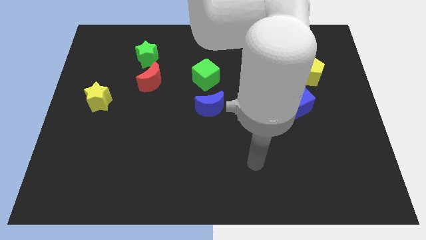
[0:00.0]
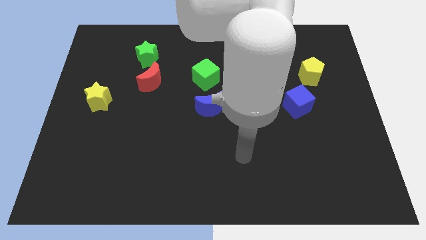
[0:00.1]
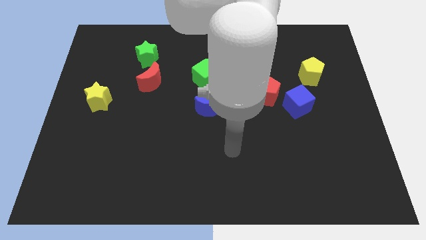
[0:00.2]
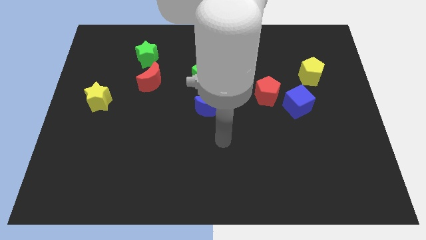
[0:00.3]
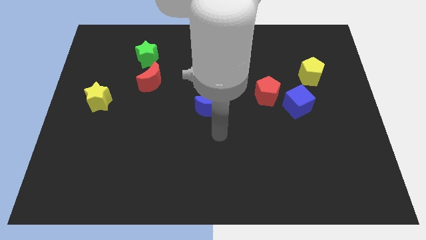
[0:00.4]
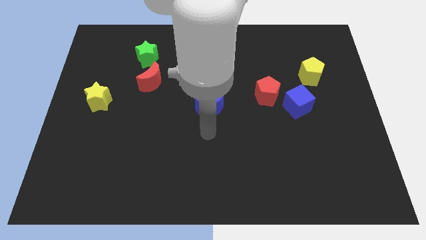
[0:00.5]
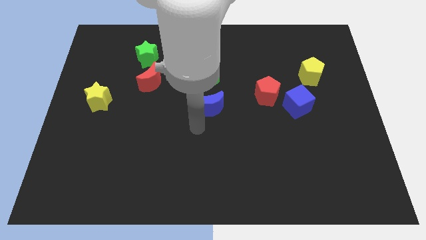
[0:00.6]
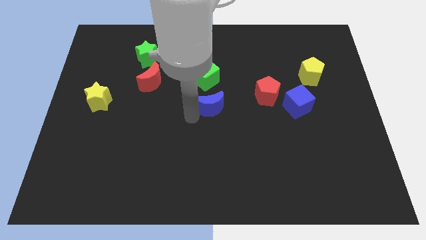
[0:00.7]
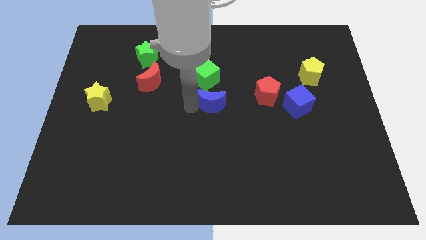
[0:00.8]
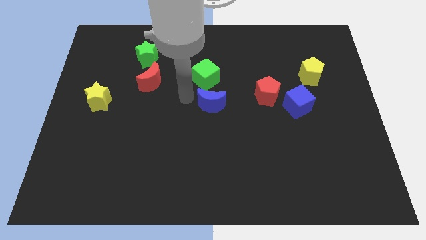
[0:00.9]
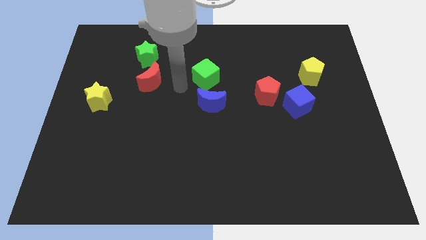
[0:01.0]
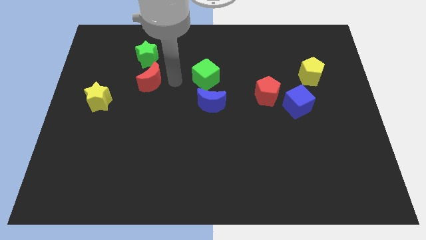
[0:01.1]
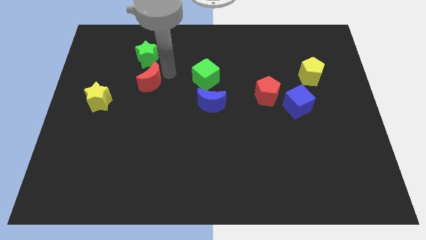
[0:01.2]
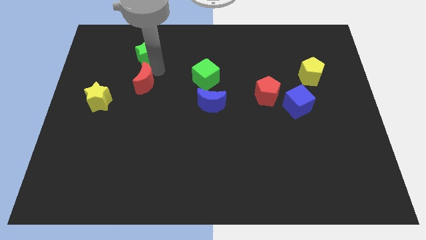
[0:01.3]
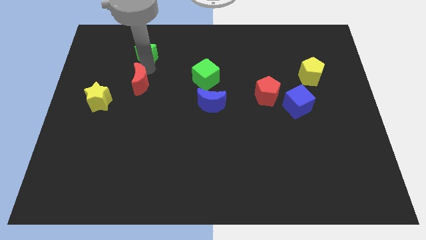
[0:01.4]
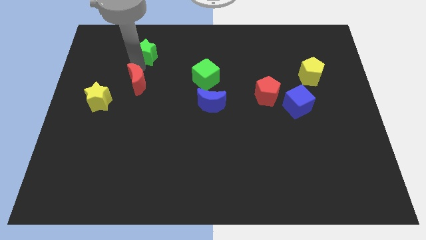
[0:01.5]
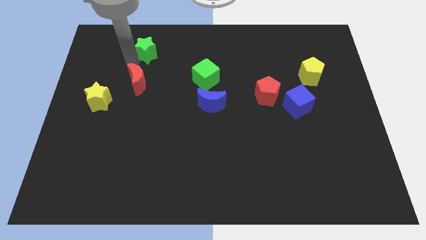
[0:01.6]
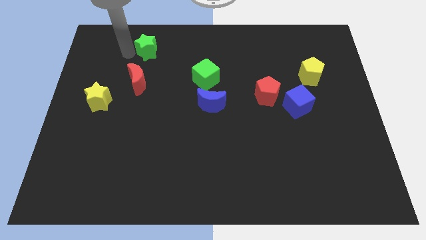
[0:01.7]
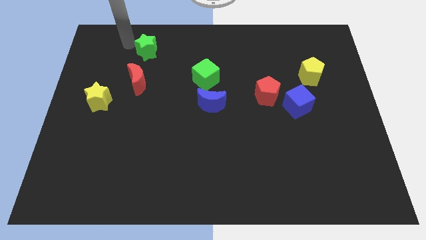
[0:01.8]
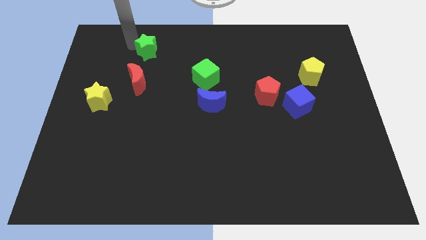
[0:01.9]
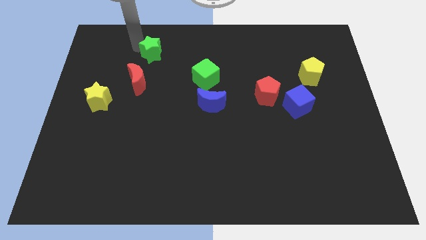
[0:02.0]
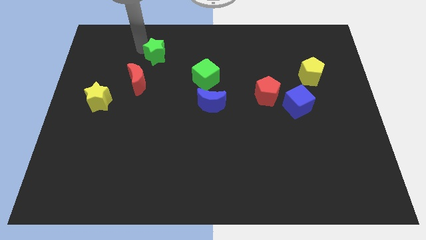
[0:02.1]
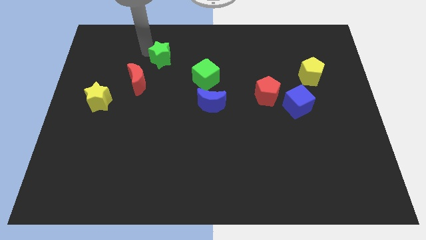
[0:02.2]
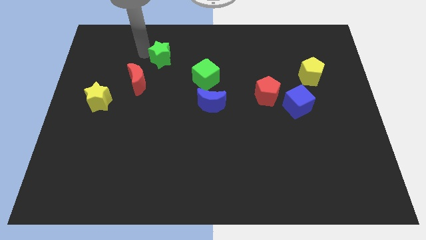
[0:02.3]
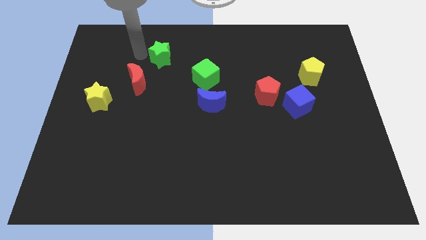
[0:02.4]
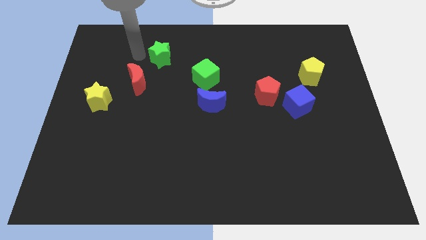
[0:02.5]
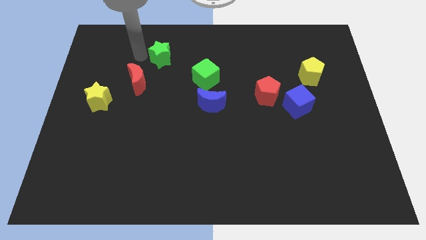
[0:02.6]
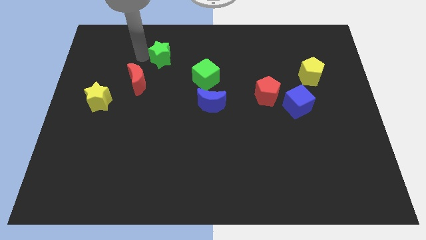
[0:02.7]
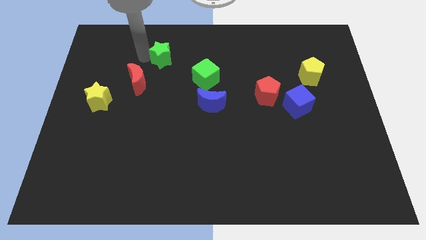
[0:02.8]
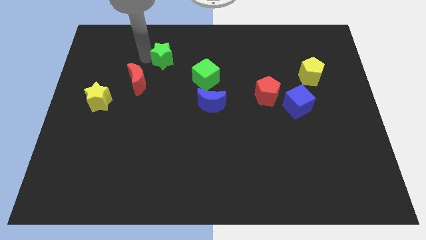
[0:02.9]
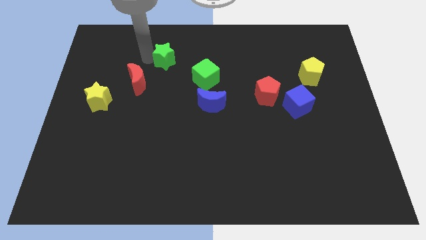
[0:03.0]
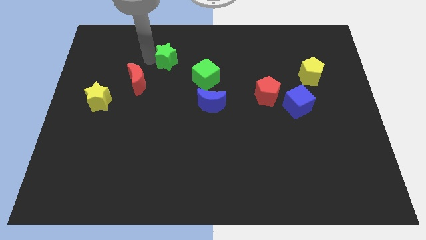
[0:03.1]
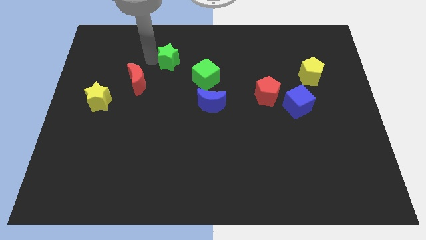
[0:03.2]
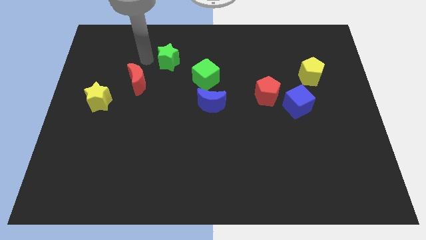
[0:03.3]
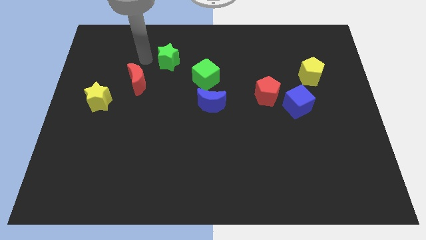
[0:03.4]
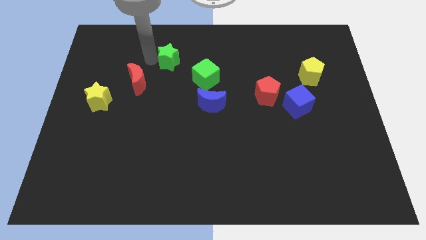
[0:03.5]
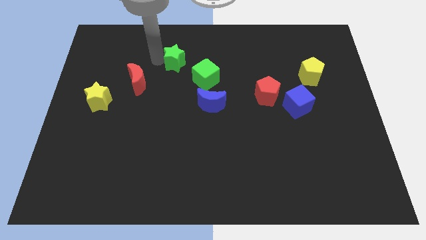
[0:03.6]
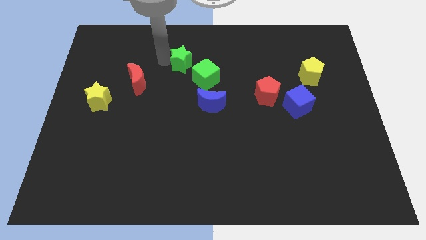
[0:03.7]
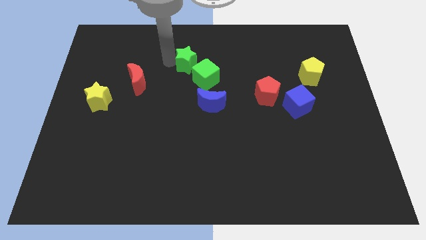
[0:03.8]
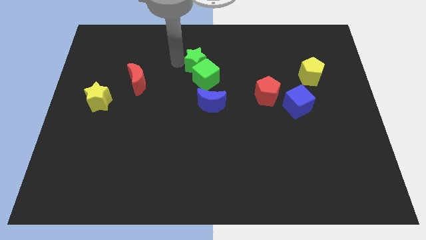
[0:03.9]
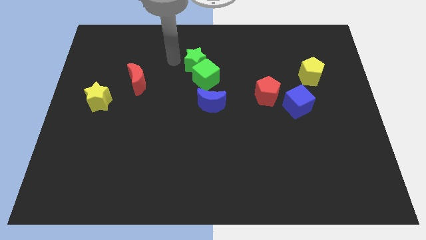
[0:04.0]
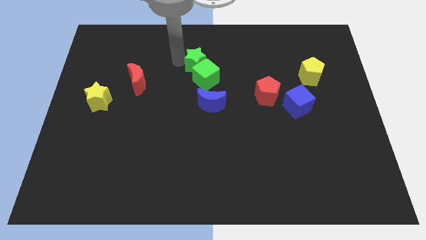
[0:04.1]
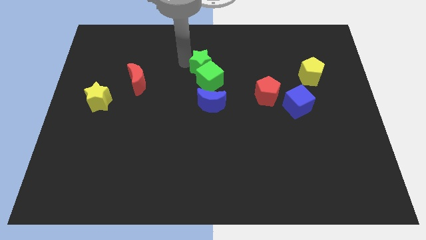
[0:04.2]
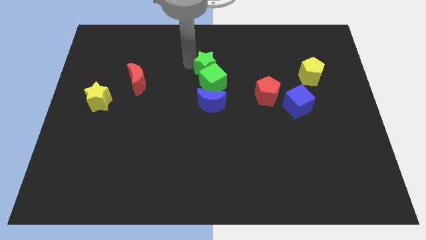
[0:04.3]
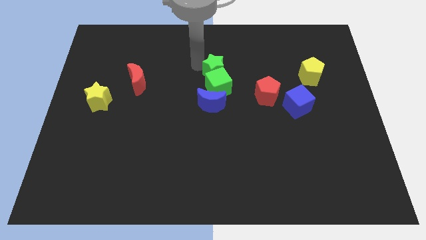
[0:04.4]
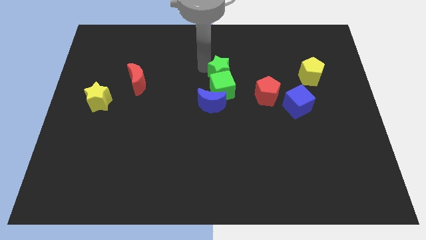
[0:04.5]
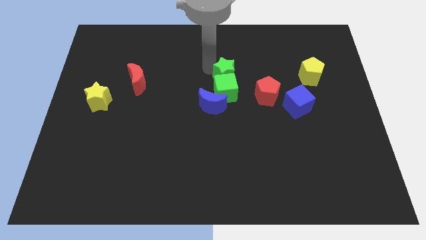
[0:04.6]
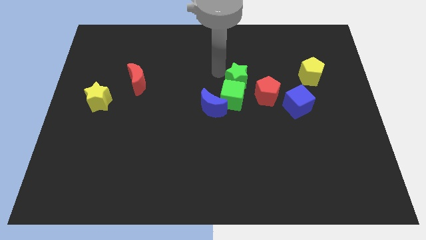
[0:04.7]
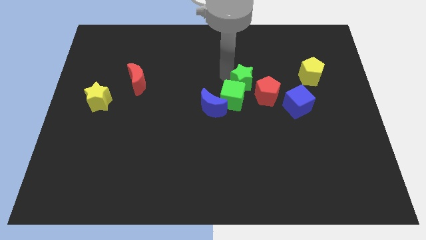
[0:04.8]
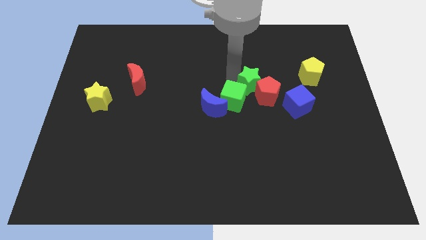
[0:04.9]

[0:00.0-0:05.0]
move the green star to the red pentagon

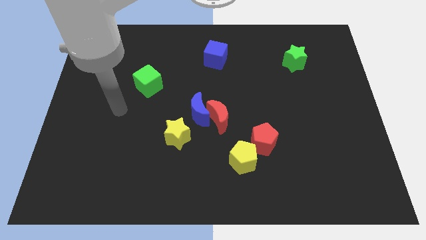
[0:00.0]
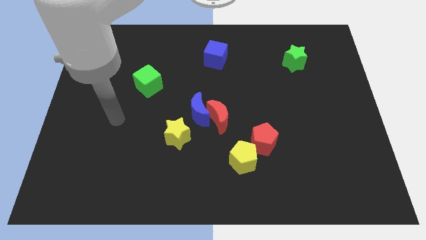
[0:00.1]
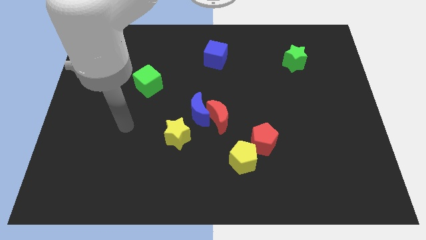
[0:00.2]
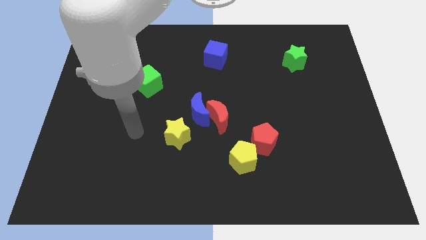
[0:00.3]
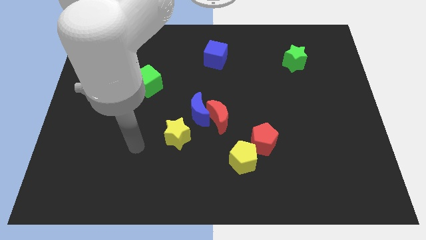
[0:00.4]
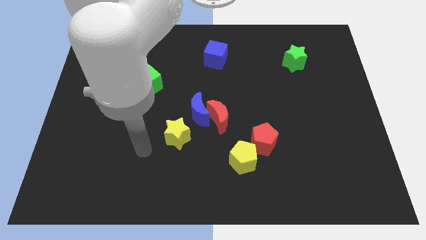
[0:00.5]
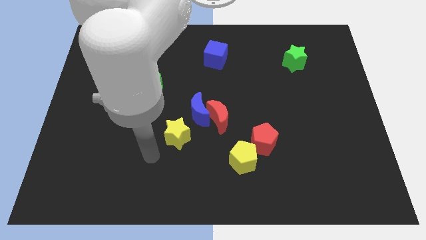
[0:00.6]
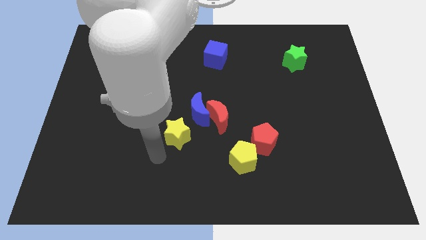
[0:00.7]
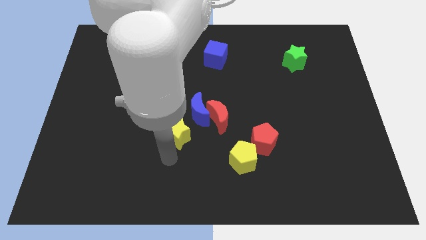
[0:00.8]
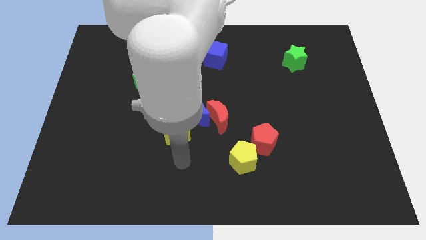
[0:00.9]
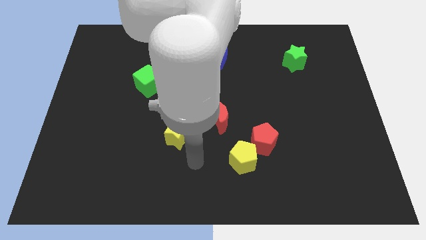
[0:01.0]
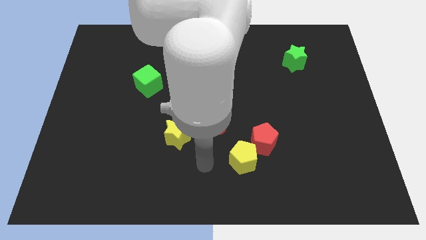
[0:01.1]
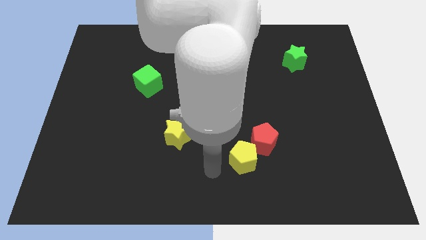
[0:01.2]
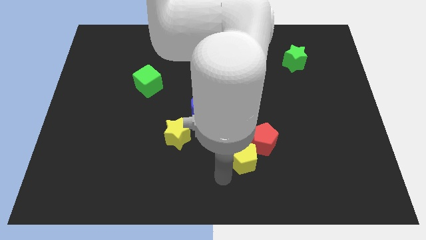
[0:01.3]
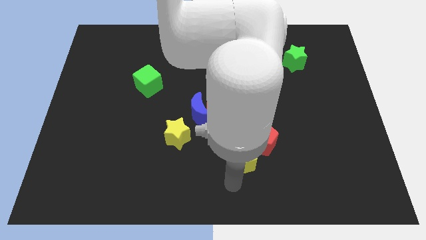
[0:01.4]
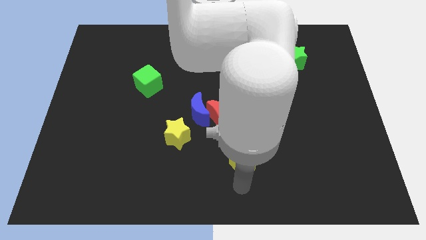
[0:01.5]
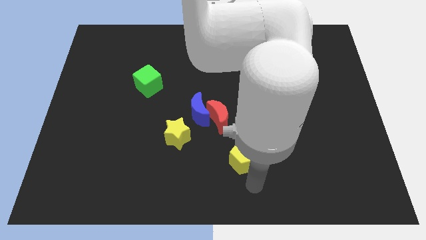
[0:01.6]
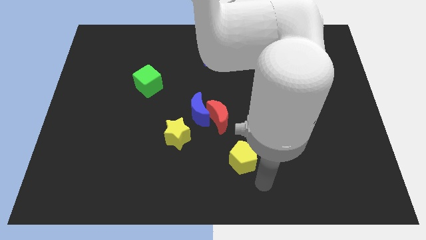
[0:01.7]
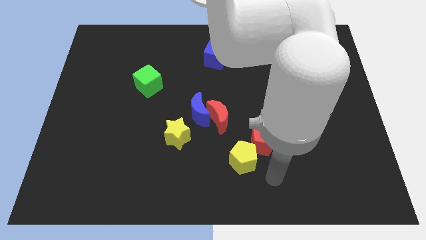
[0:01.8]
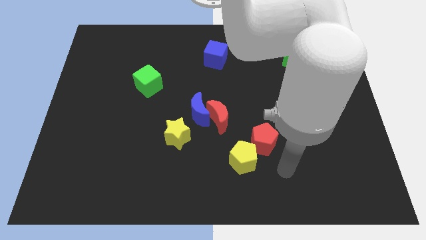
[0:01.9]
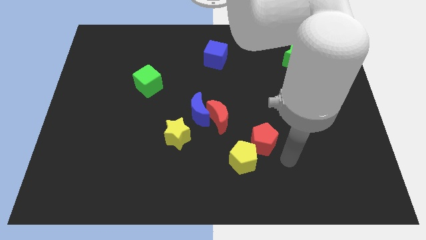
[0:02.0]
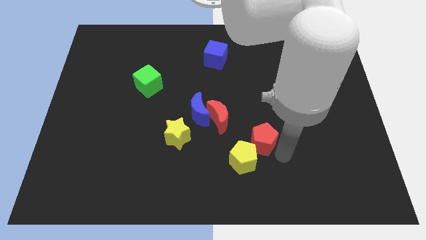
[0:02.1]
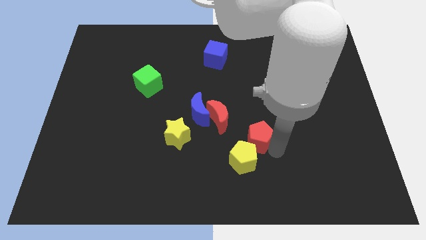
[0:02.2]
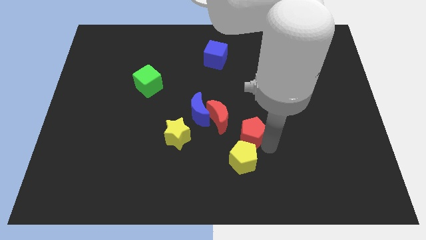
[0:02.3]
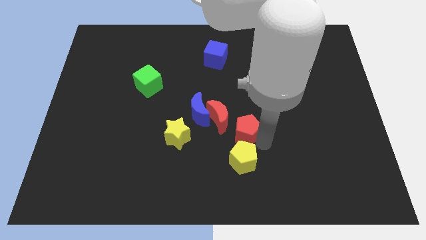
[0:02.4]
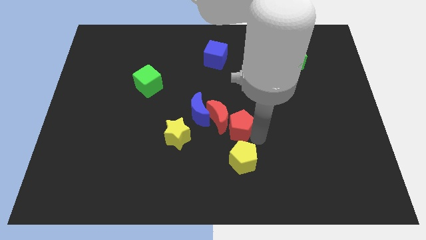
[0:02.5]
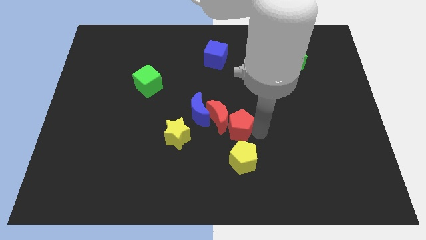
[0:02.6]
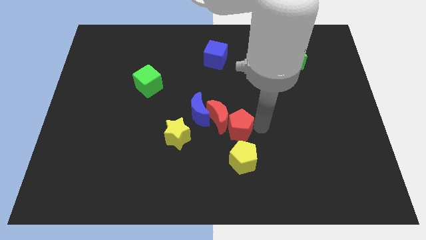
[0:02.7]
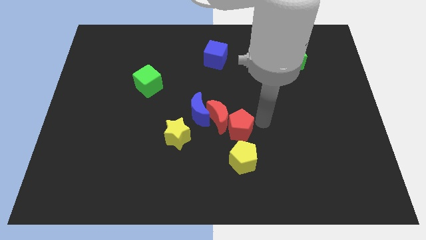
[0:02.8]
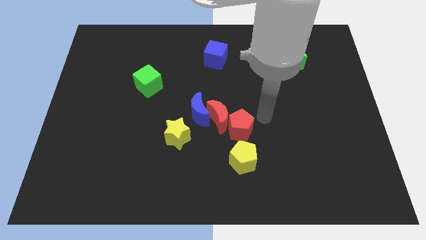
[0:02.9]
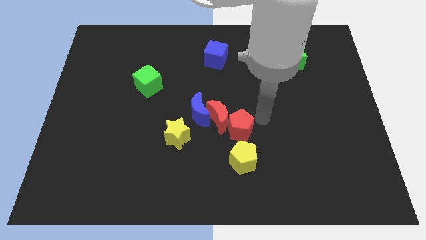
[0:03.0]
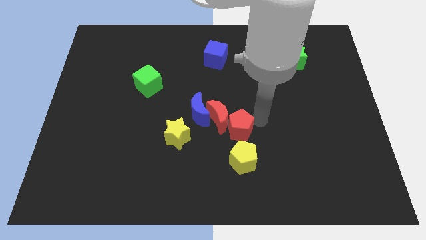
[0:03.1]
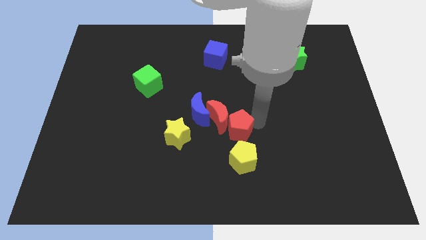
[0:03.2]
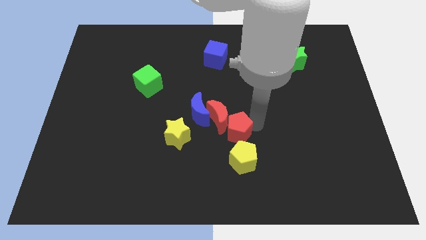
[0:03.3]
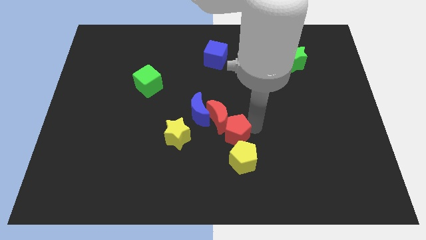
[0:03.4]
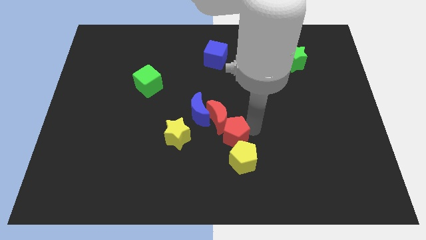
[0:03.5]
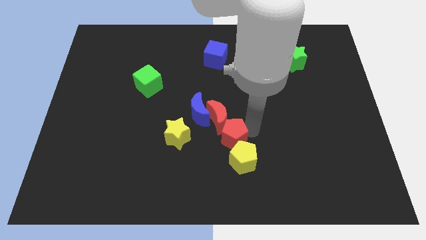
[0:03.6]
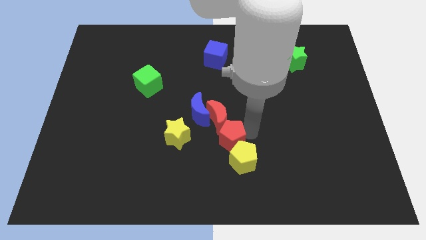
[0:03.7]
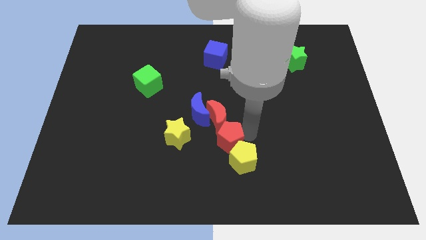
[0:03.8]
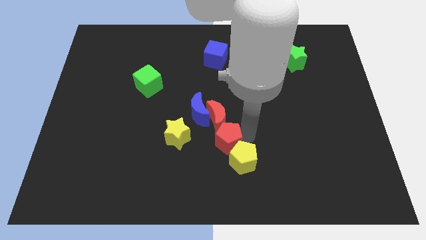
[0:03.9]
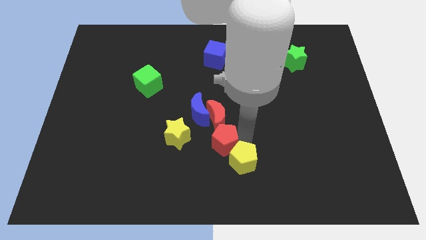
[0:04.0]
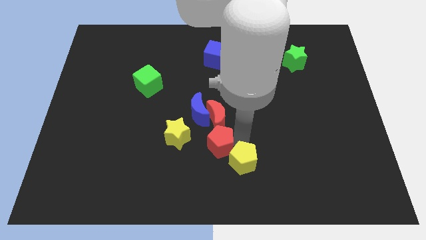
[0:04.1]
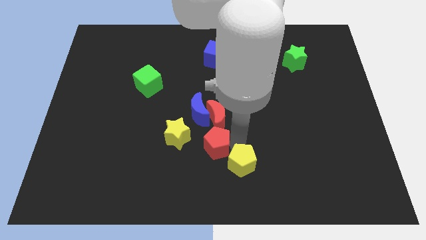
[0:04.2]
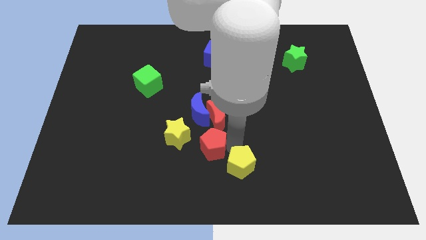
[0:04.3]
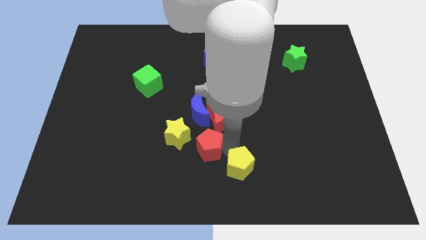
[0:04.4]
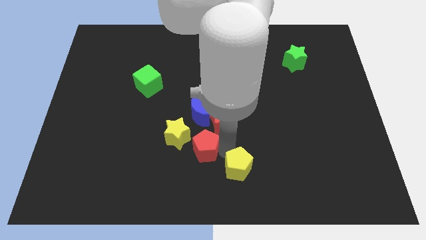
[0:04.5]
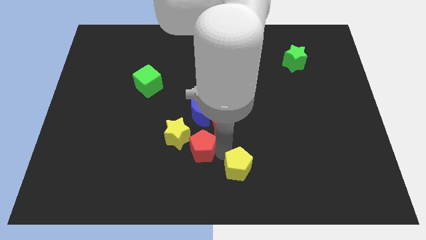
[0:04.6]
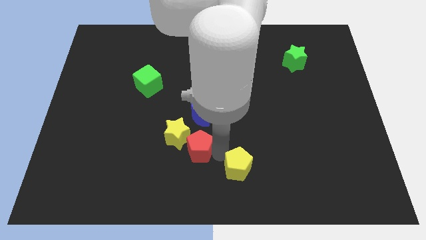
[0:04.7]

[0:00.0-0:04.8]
put the red pentagon towards the yellow star
